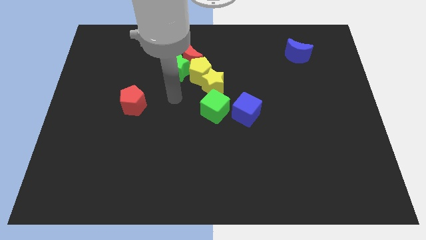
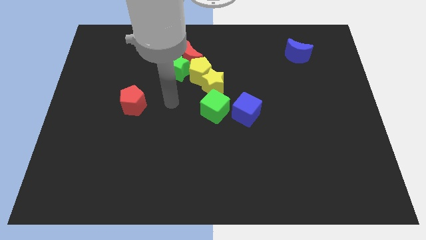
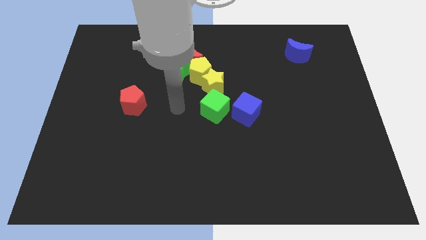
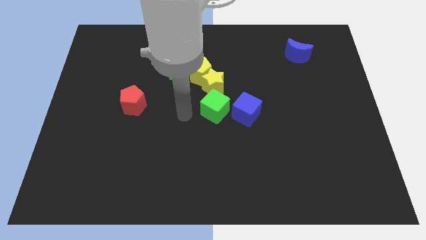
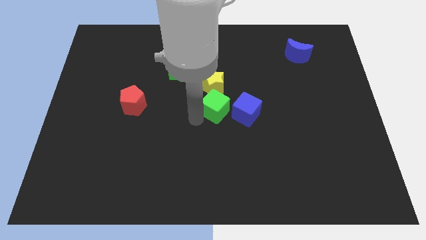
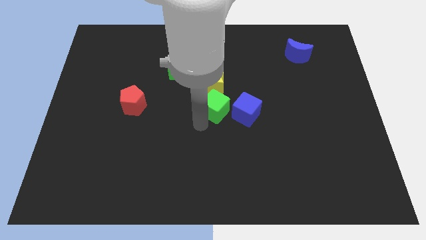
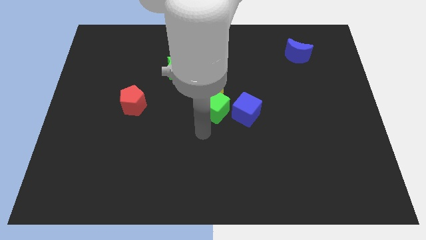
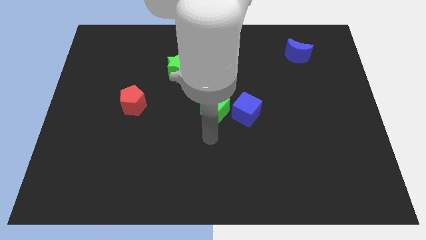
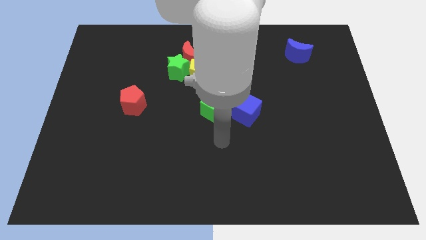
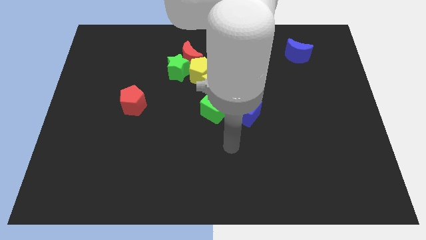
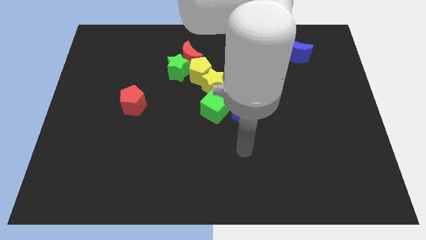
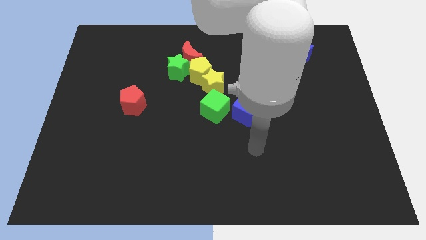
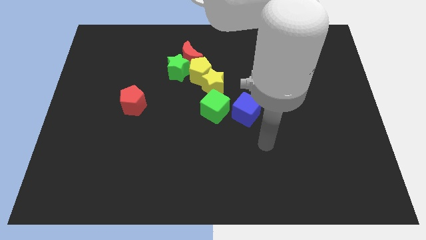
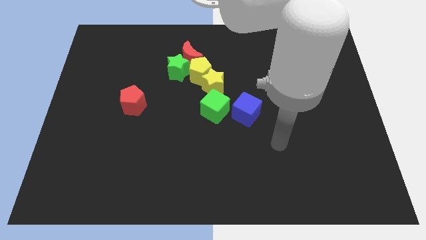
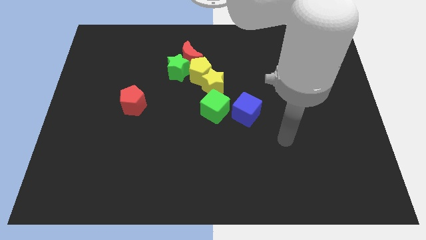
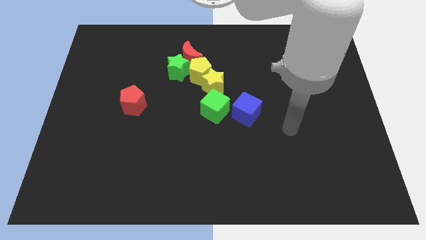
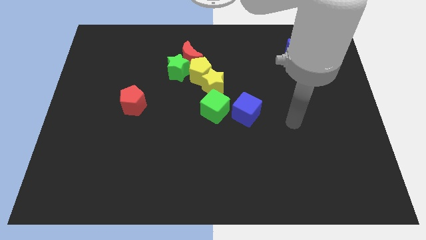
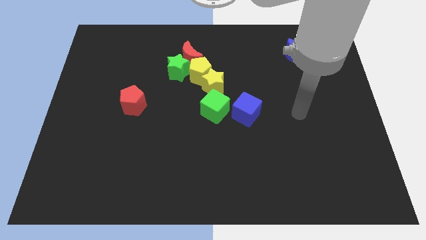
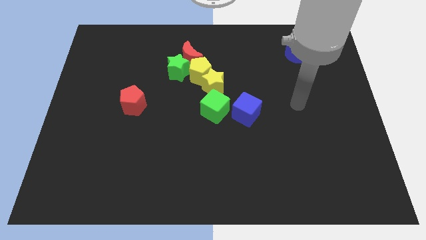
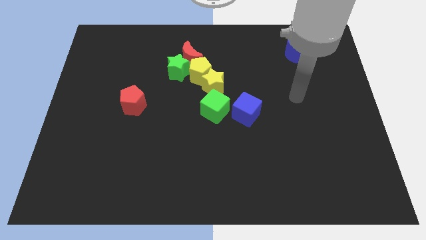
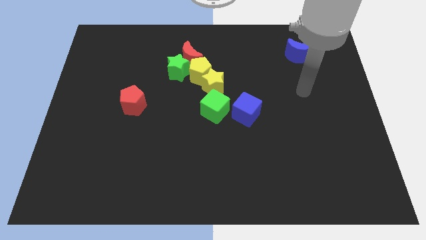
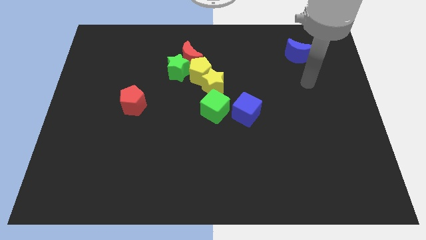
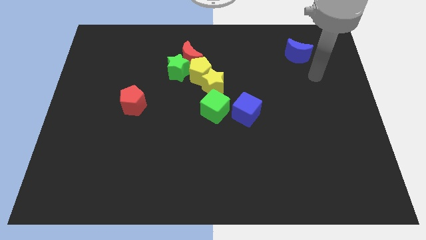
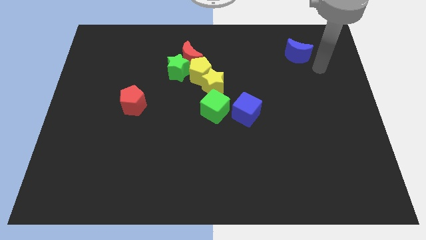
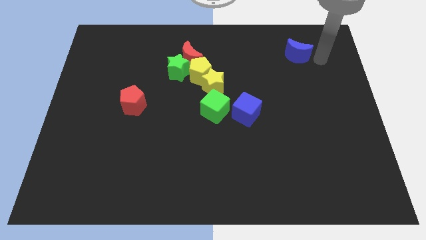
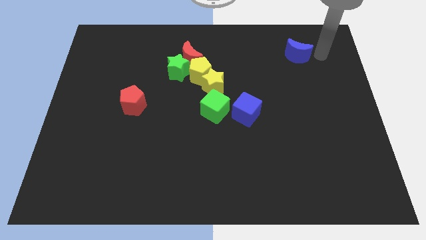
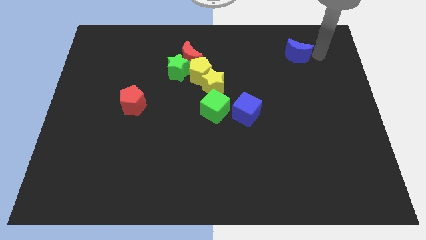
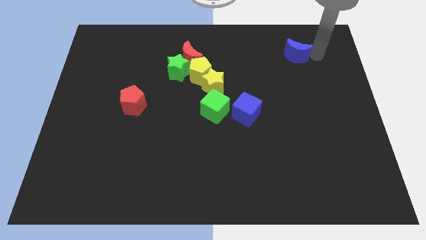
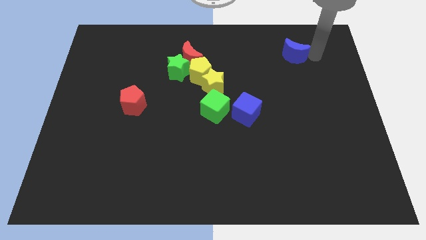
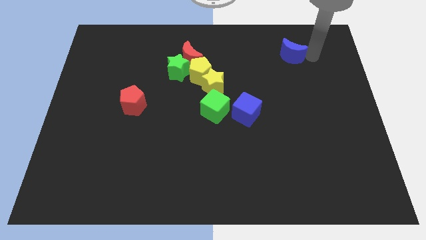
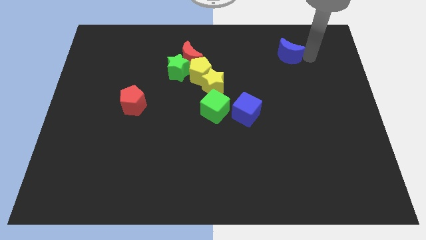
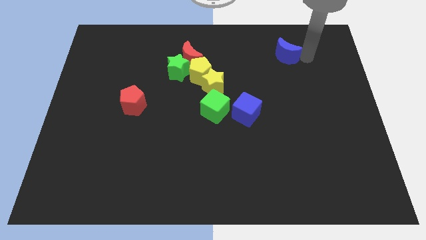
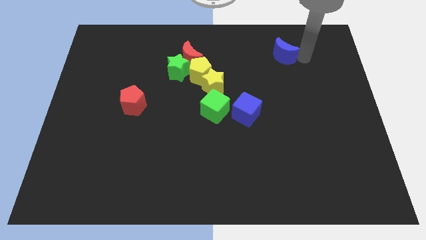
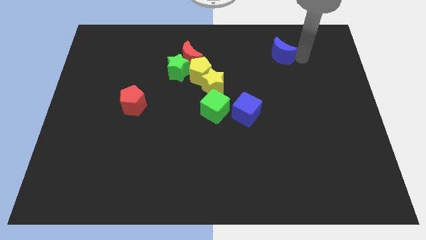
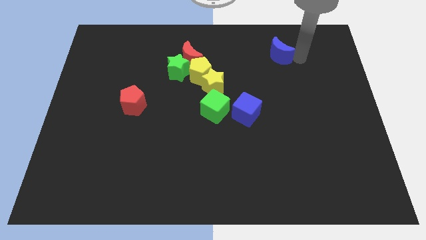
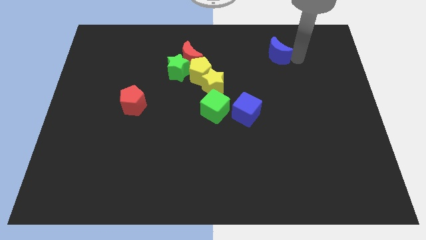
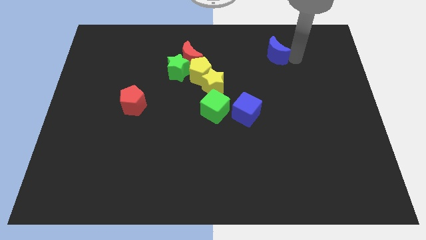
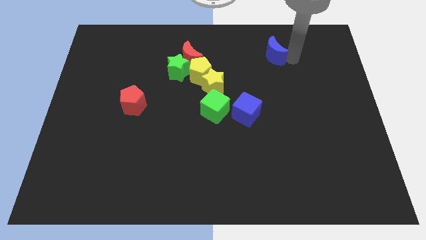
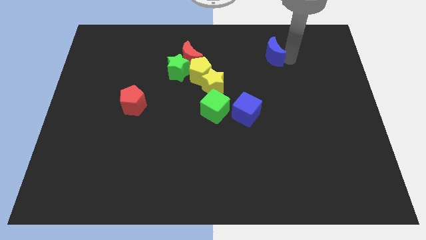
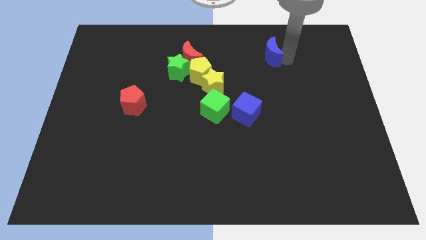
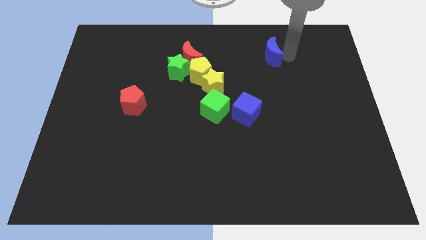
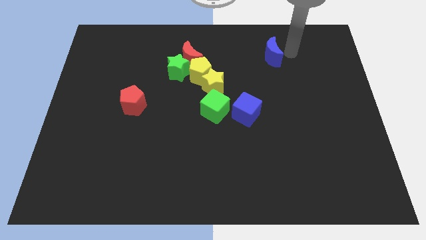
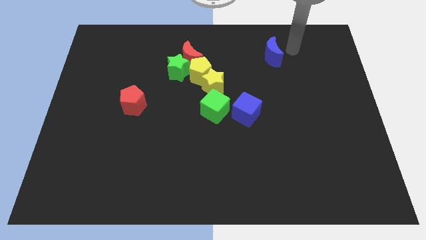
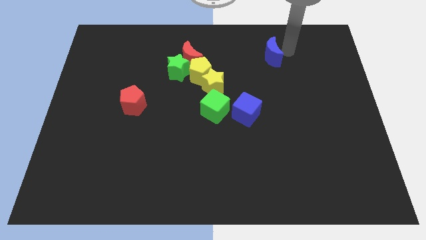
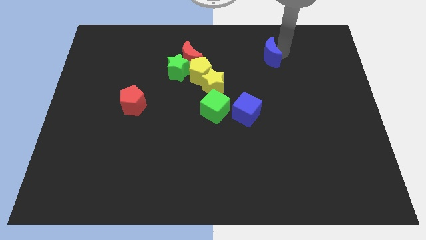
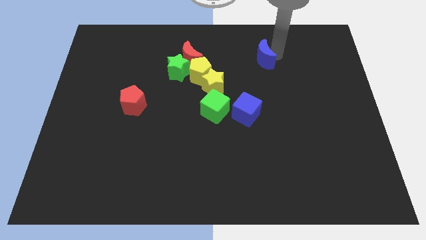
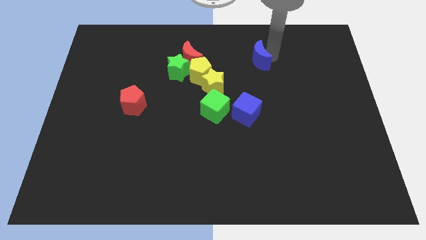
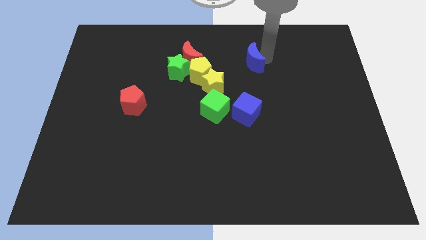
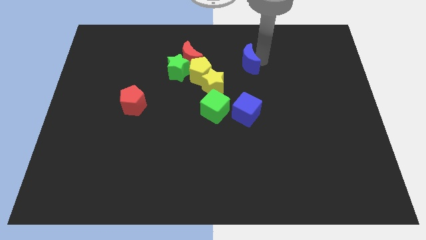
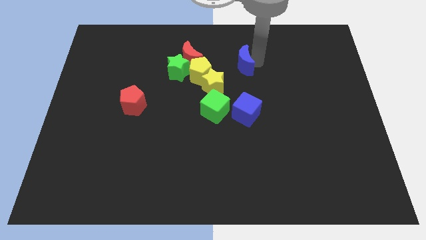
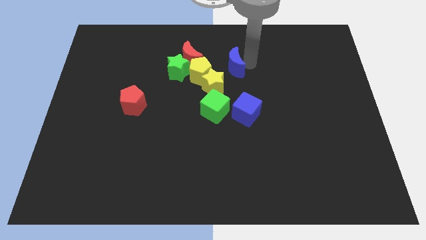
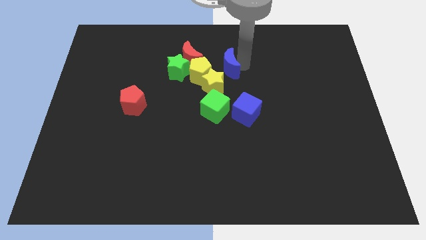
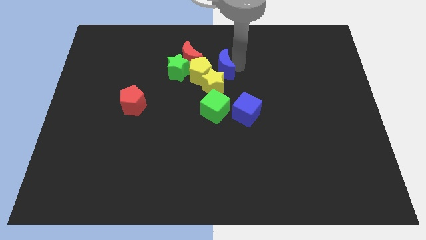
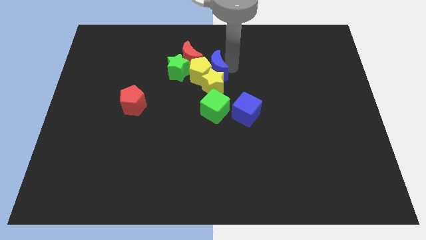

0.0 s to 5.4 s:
slide the blue moon next to the yellow pentagon

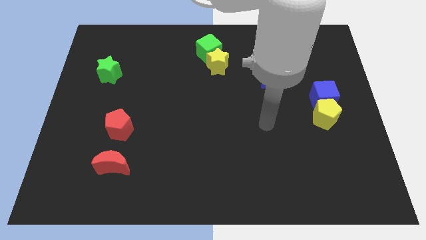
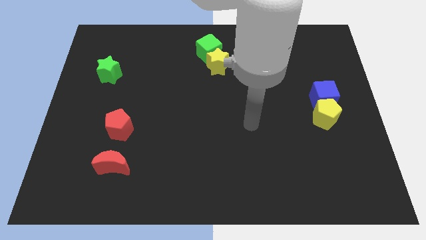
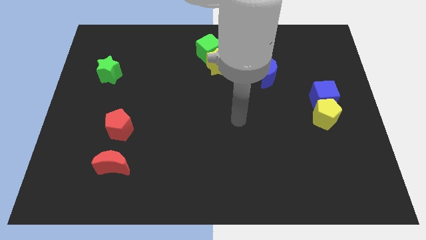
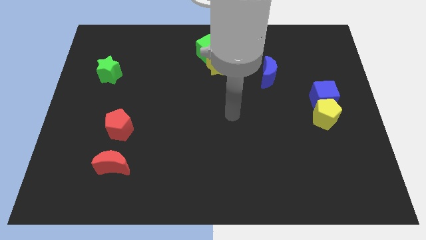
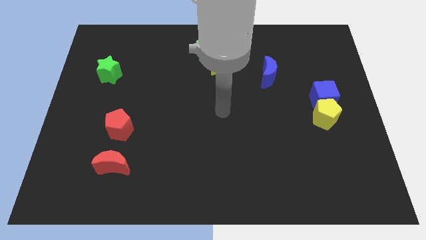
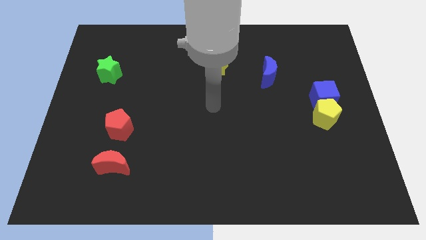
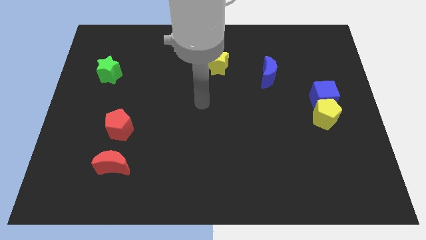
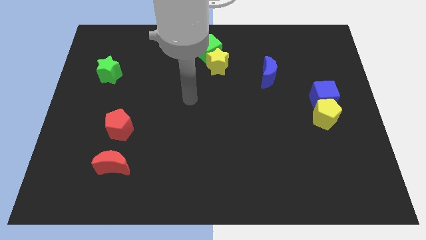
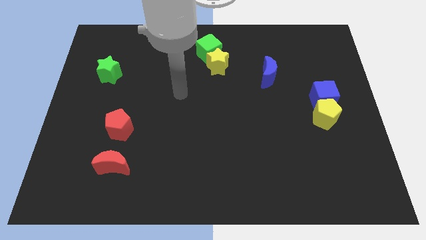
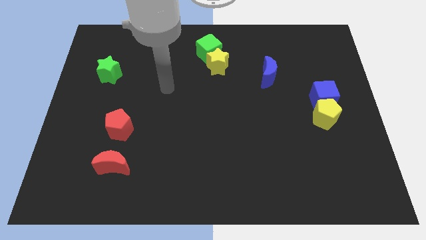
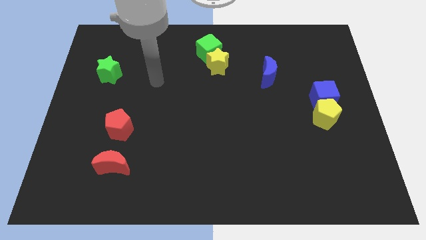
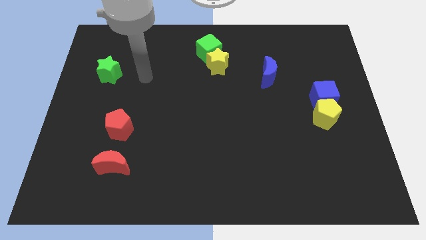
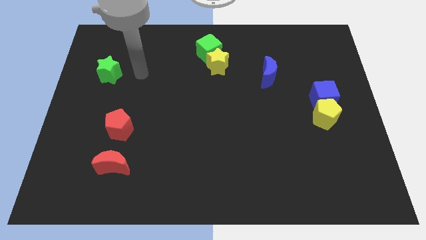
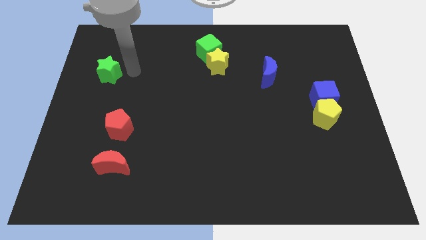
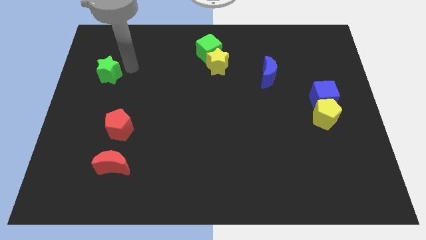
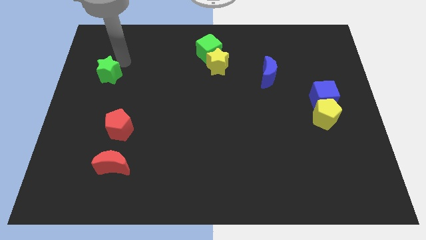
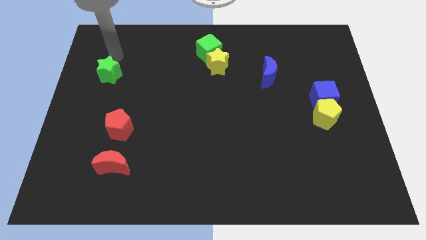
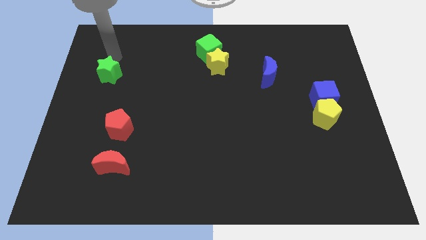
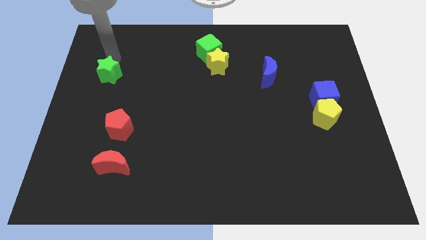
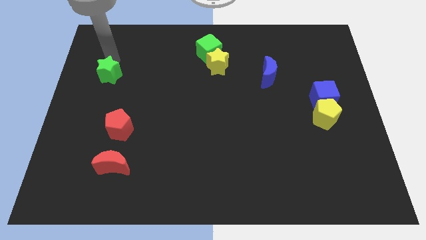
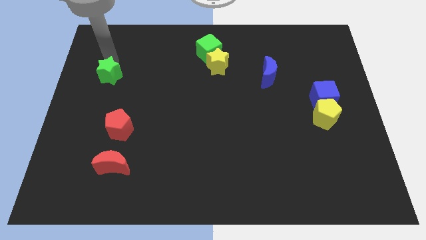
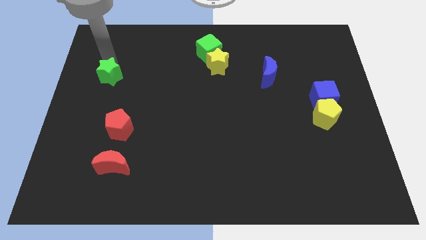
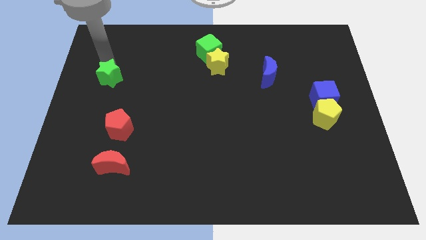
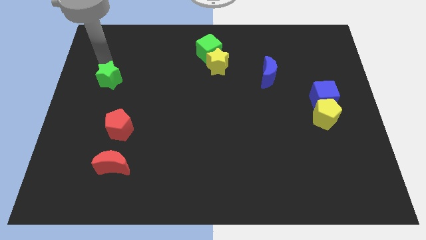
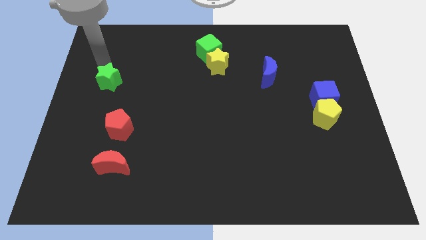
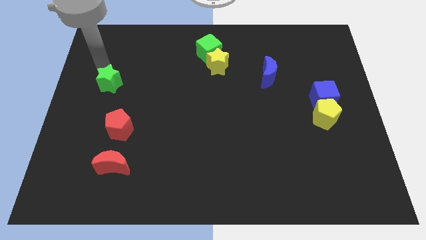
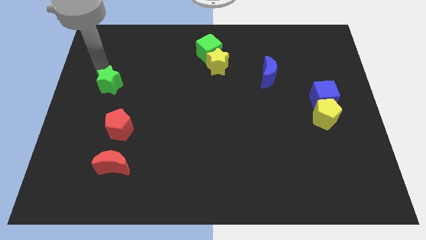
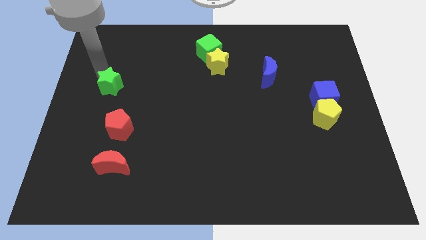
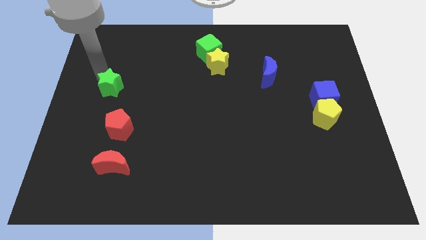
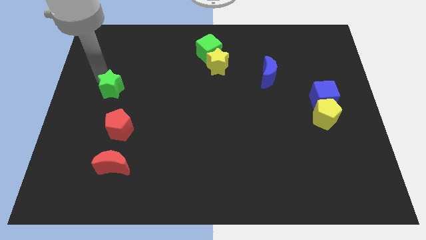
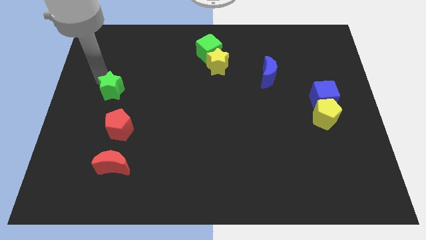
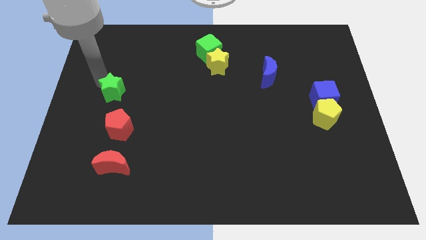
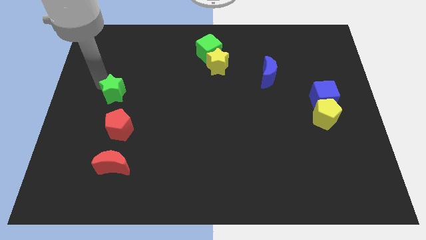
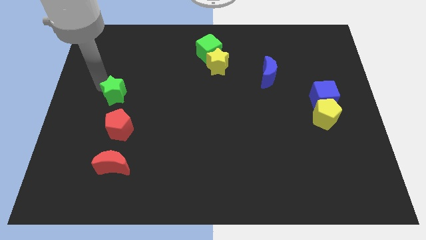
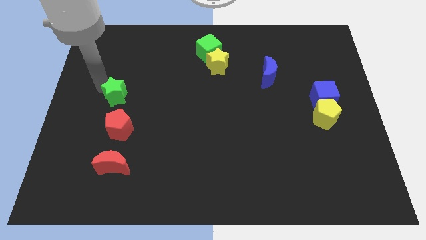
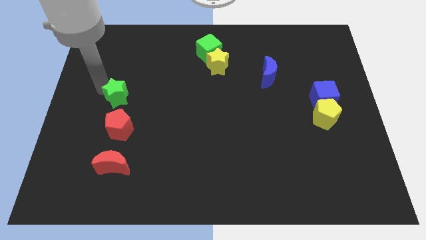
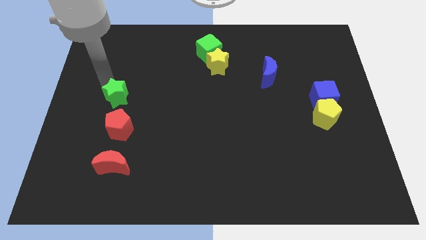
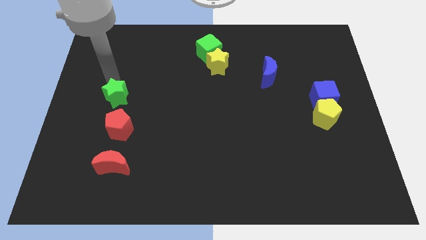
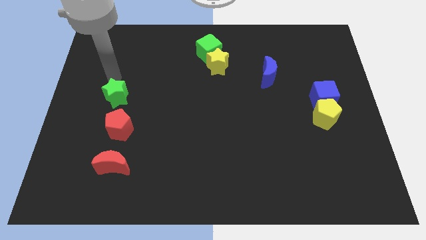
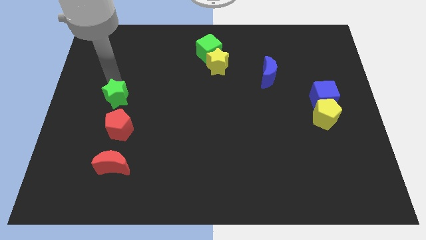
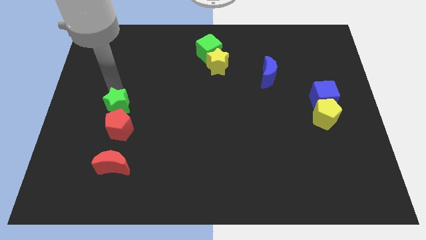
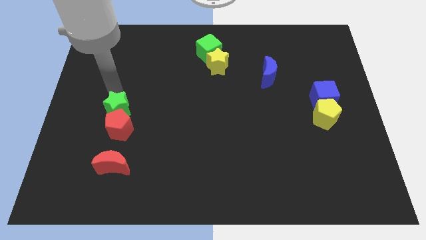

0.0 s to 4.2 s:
push the green star towards the red pentagon
